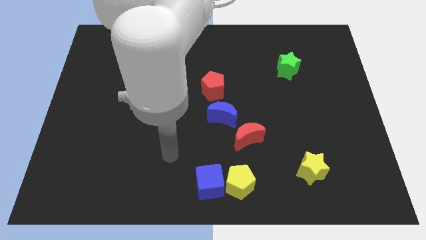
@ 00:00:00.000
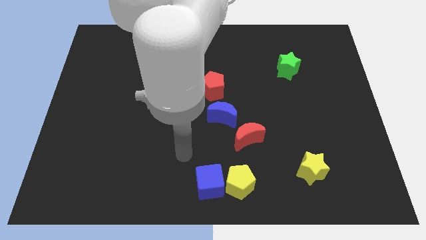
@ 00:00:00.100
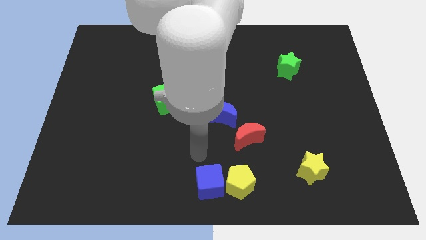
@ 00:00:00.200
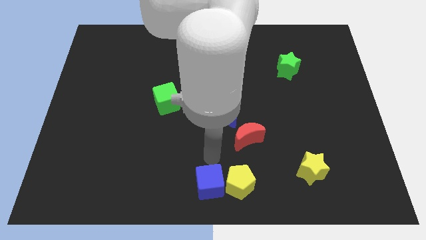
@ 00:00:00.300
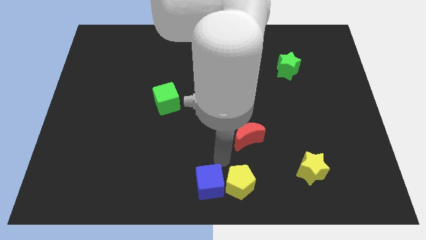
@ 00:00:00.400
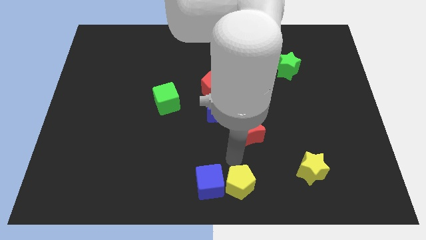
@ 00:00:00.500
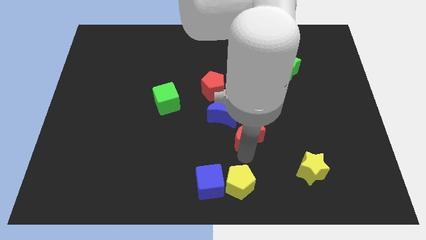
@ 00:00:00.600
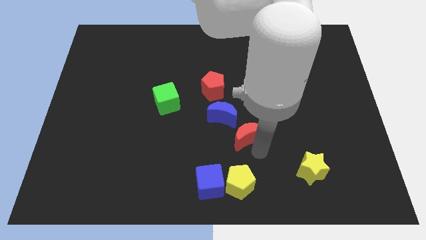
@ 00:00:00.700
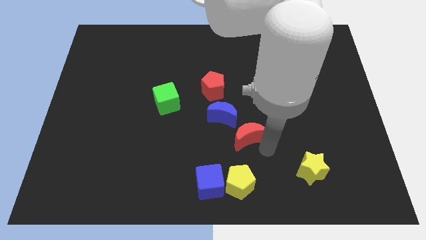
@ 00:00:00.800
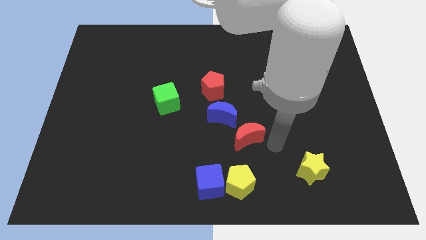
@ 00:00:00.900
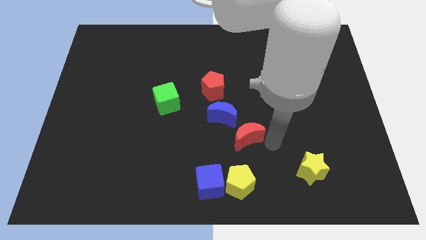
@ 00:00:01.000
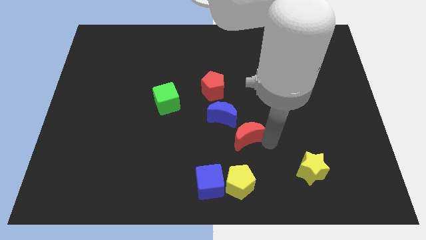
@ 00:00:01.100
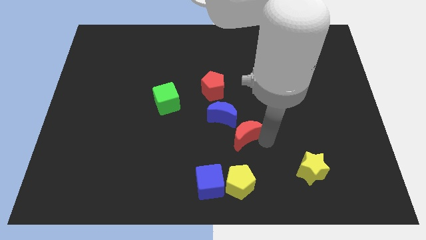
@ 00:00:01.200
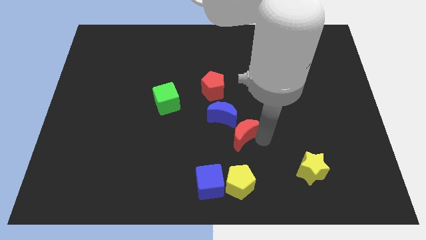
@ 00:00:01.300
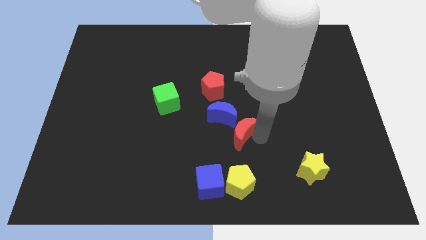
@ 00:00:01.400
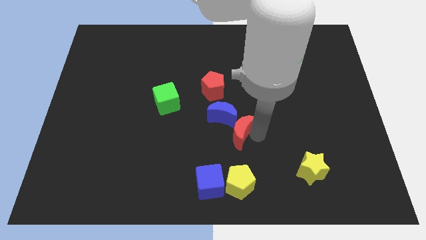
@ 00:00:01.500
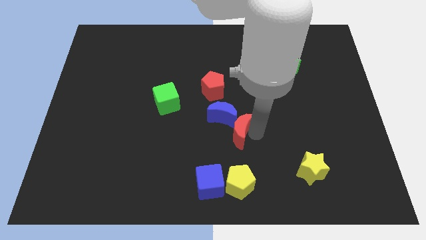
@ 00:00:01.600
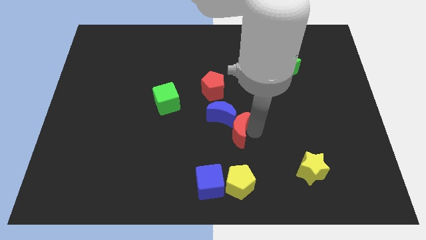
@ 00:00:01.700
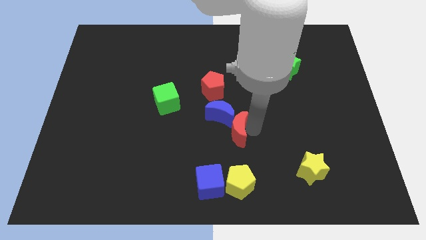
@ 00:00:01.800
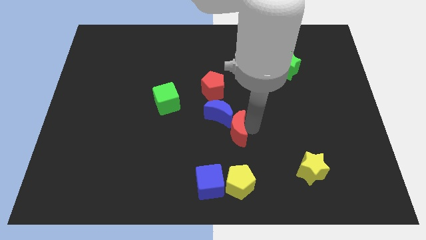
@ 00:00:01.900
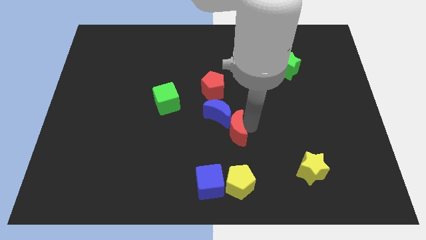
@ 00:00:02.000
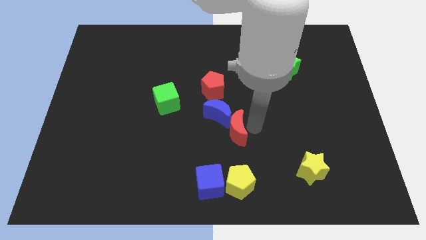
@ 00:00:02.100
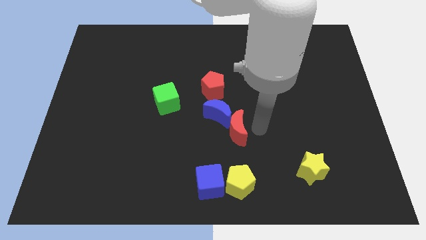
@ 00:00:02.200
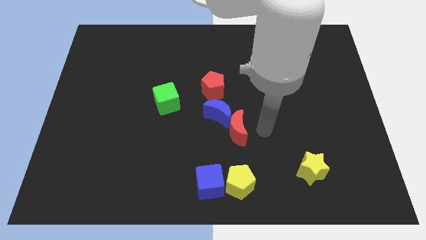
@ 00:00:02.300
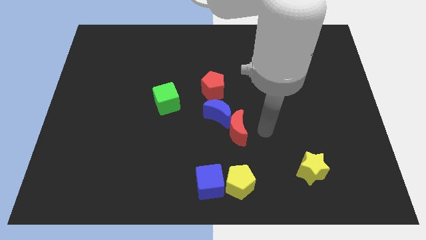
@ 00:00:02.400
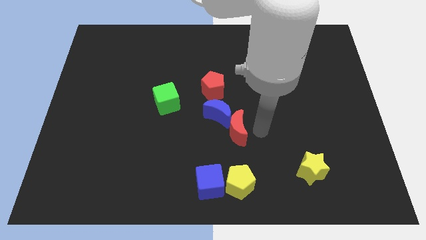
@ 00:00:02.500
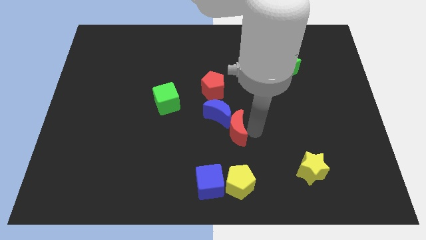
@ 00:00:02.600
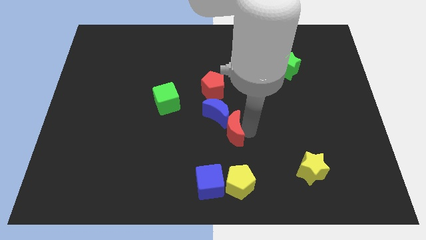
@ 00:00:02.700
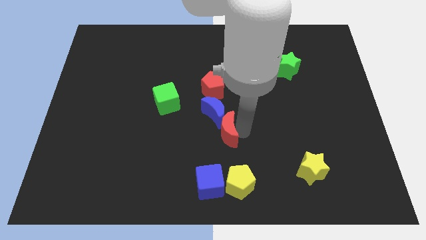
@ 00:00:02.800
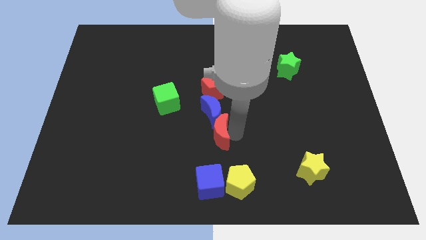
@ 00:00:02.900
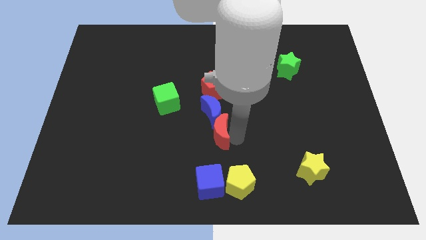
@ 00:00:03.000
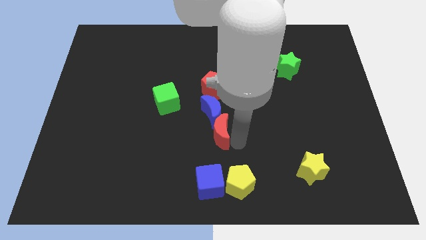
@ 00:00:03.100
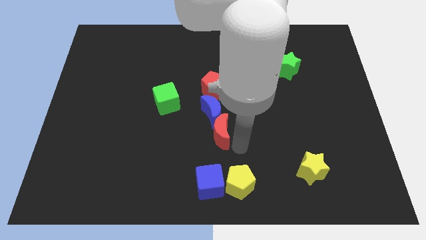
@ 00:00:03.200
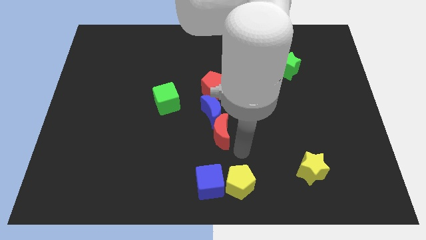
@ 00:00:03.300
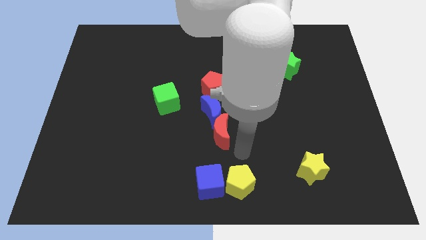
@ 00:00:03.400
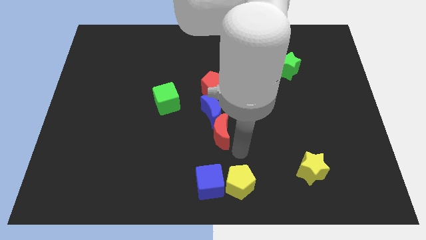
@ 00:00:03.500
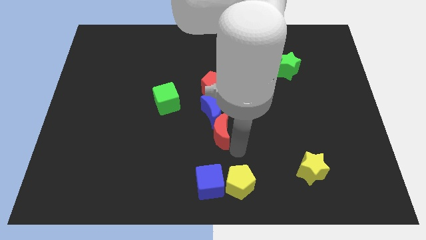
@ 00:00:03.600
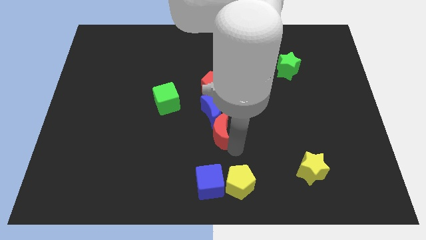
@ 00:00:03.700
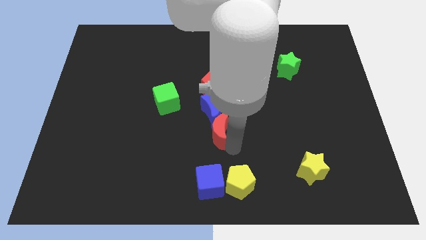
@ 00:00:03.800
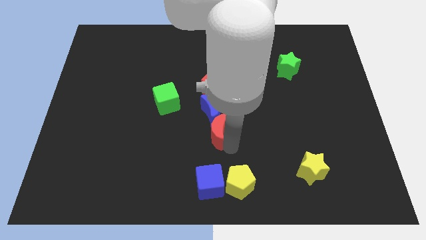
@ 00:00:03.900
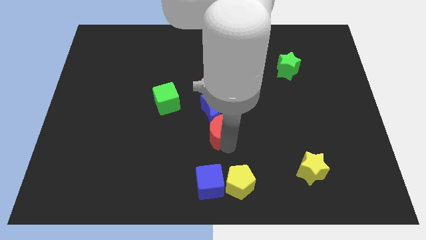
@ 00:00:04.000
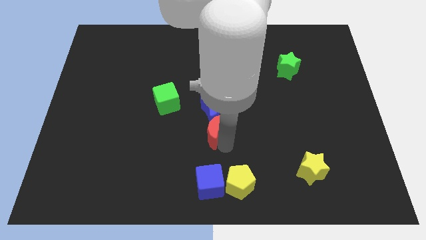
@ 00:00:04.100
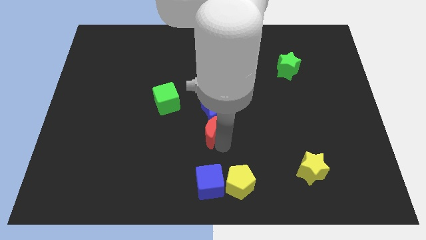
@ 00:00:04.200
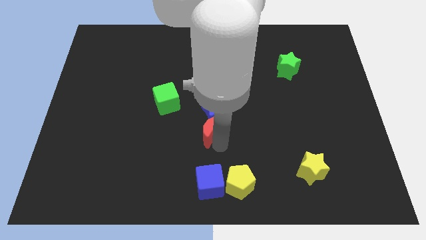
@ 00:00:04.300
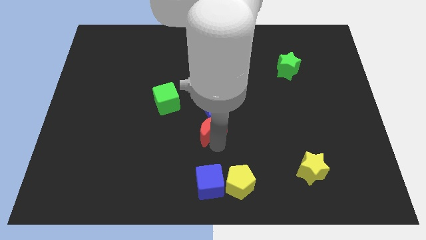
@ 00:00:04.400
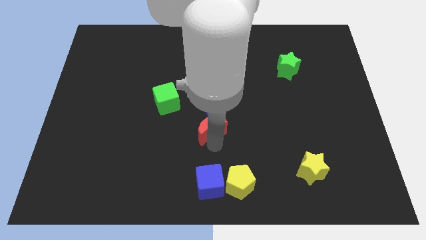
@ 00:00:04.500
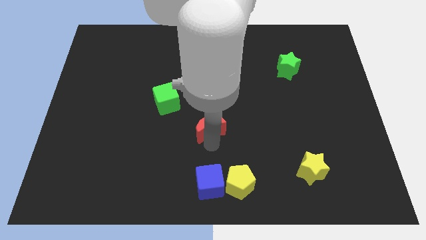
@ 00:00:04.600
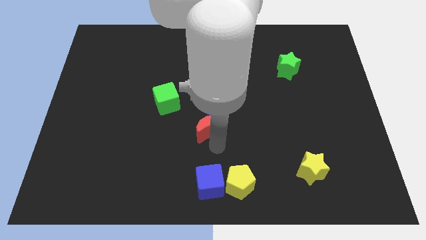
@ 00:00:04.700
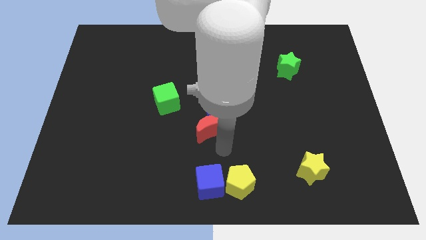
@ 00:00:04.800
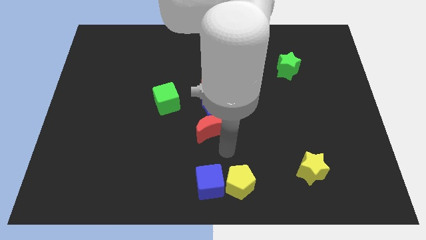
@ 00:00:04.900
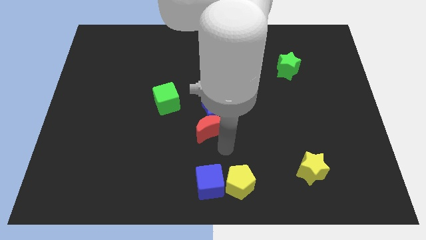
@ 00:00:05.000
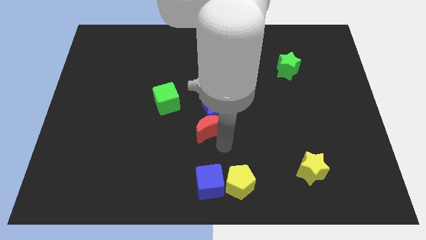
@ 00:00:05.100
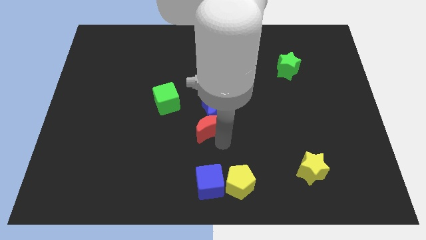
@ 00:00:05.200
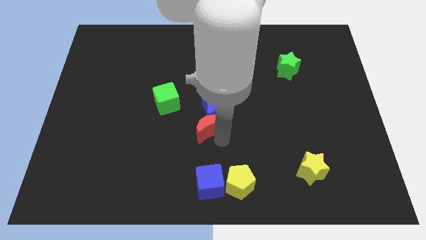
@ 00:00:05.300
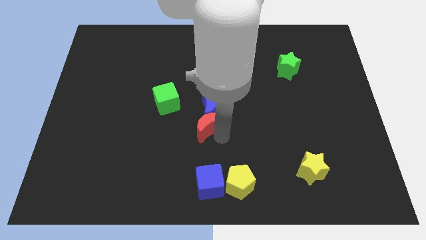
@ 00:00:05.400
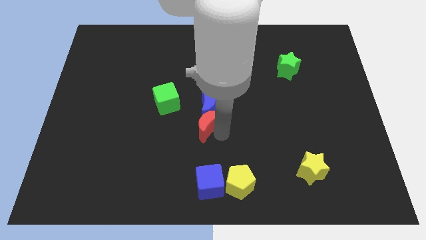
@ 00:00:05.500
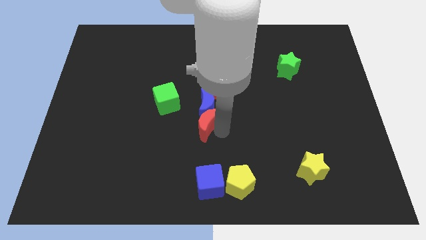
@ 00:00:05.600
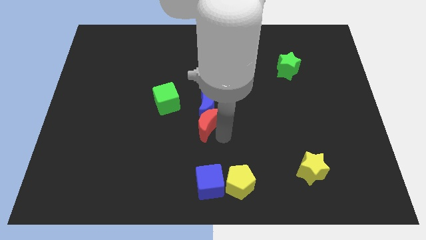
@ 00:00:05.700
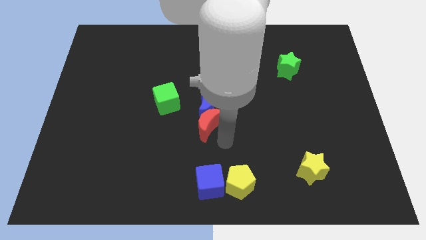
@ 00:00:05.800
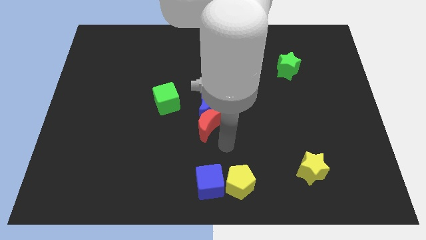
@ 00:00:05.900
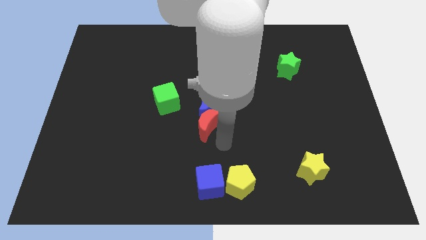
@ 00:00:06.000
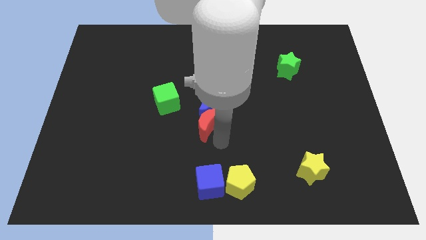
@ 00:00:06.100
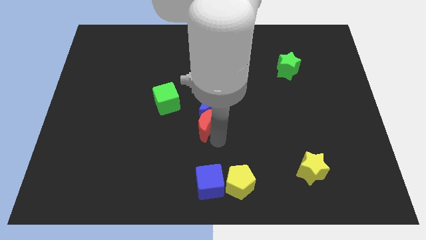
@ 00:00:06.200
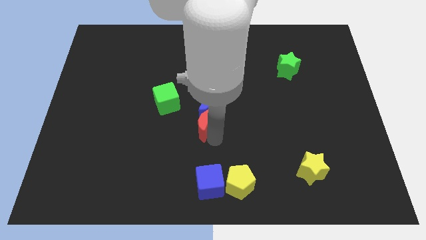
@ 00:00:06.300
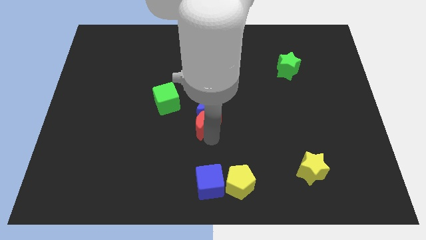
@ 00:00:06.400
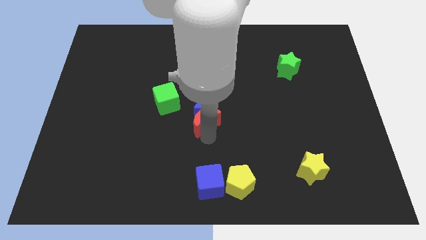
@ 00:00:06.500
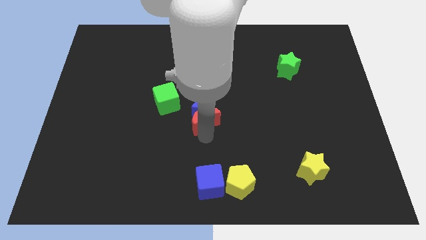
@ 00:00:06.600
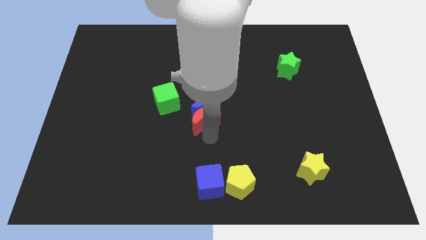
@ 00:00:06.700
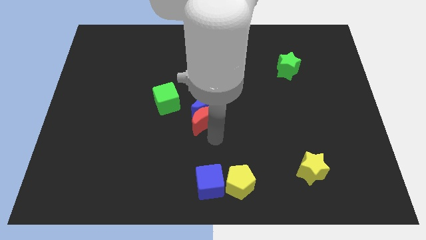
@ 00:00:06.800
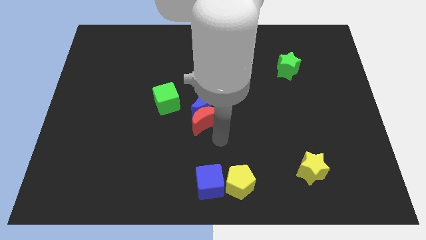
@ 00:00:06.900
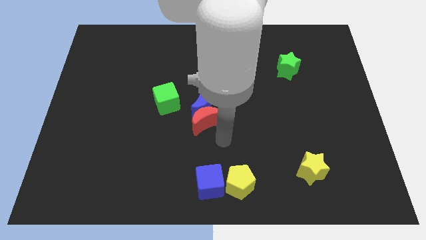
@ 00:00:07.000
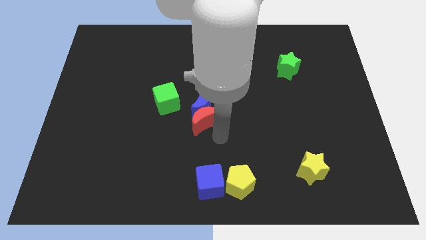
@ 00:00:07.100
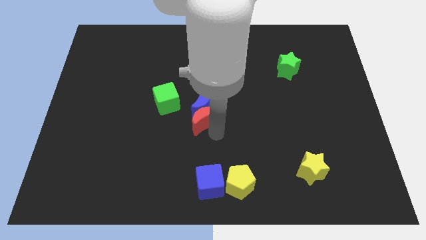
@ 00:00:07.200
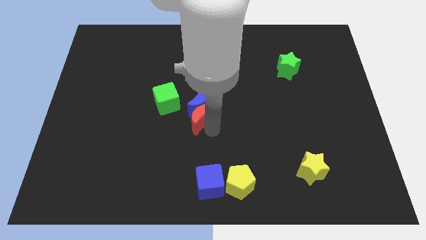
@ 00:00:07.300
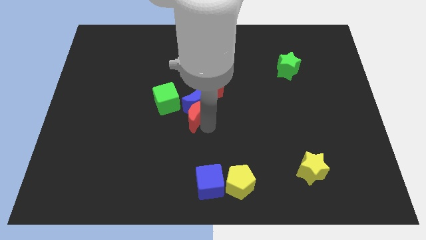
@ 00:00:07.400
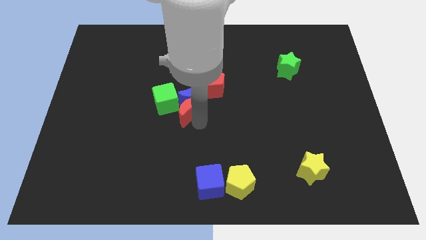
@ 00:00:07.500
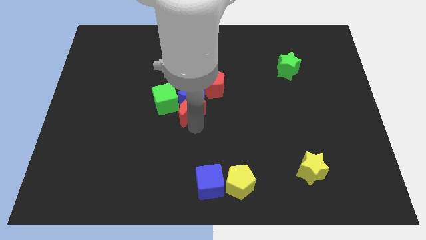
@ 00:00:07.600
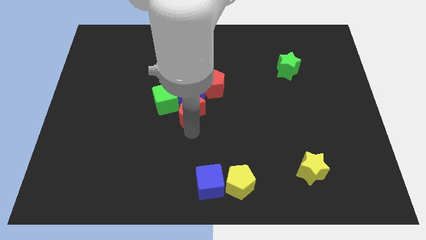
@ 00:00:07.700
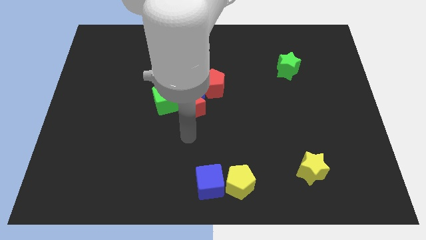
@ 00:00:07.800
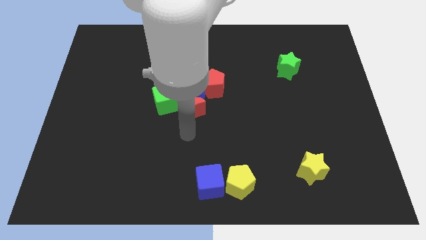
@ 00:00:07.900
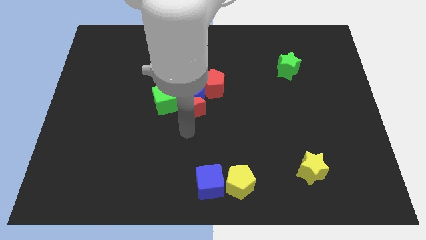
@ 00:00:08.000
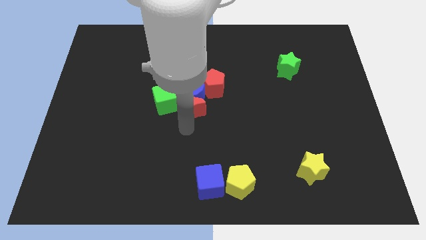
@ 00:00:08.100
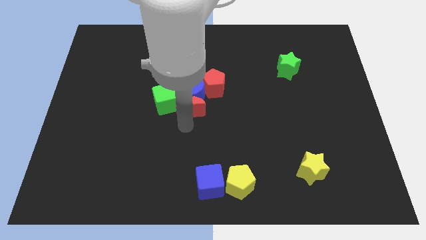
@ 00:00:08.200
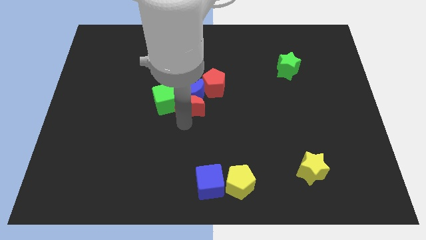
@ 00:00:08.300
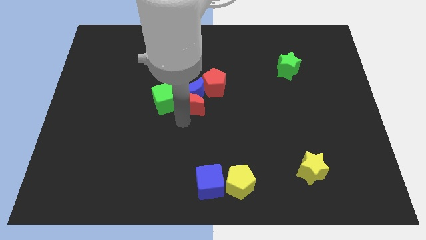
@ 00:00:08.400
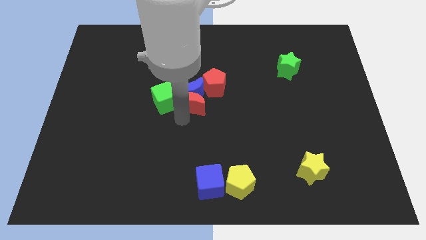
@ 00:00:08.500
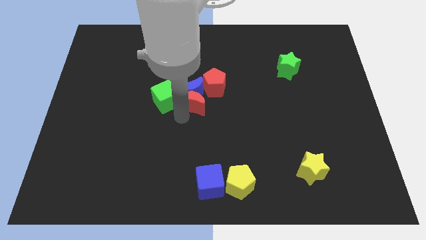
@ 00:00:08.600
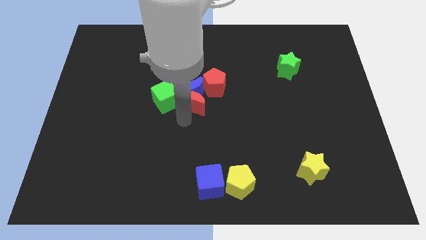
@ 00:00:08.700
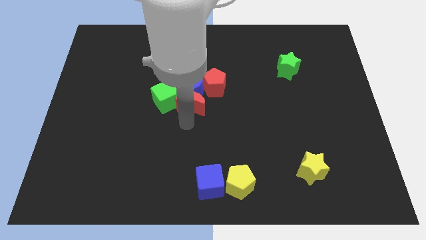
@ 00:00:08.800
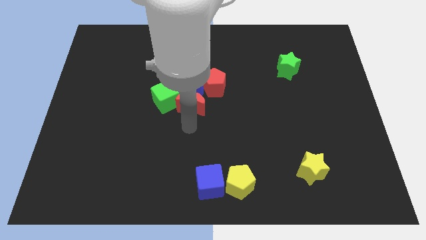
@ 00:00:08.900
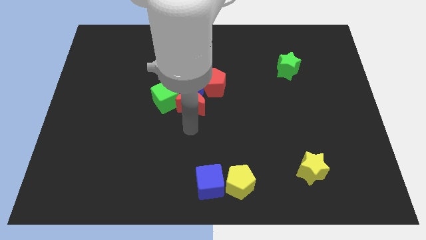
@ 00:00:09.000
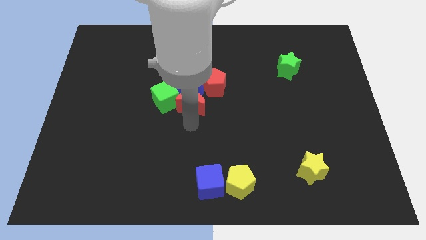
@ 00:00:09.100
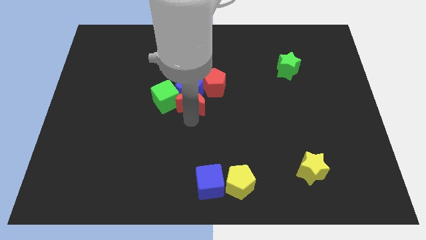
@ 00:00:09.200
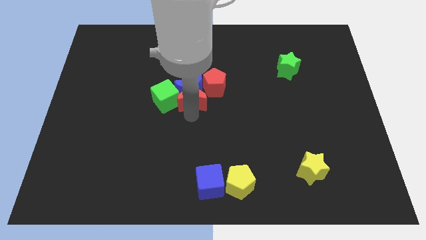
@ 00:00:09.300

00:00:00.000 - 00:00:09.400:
move the red moon just left of the red pentagon
